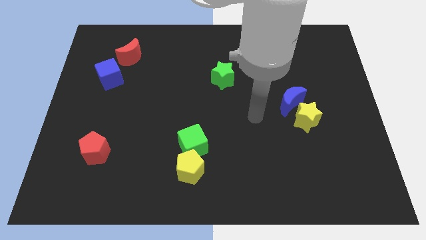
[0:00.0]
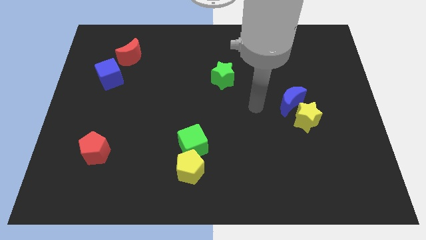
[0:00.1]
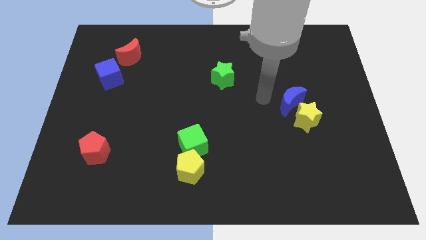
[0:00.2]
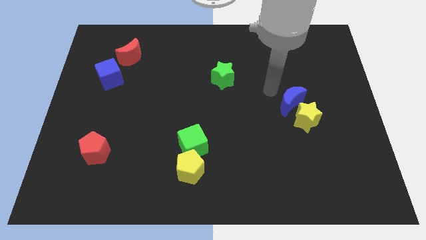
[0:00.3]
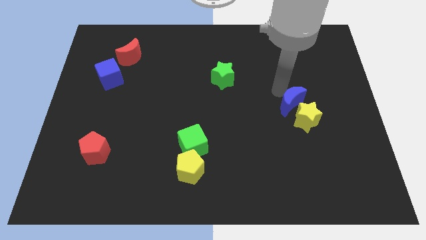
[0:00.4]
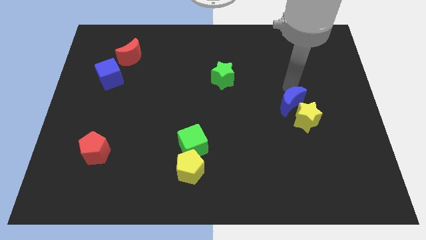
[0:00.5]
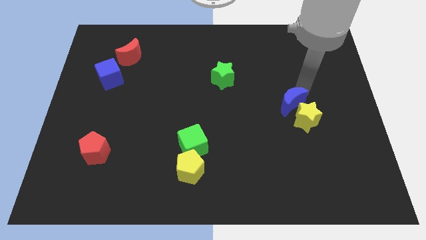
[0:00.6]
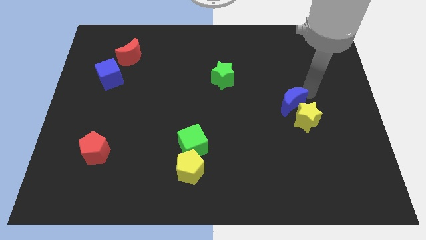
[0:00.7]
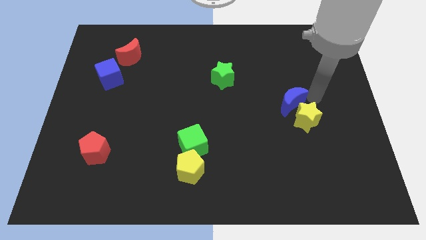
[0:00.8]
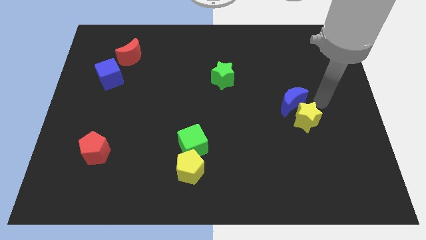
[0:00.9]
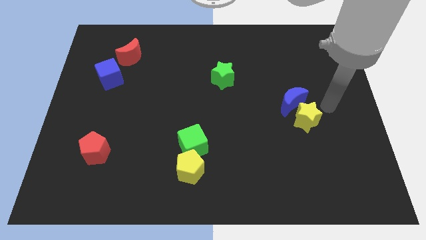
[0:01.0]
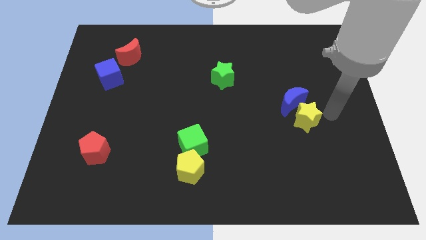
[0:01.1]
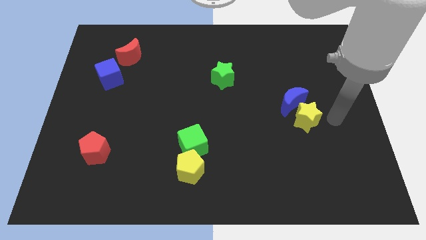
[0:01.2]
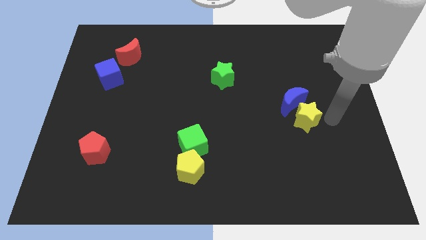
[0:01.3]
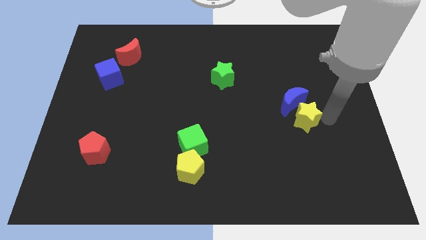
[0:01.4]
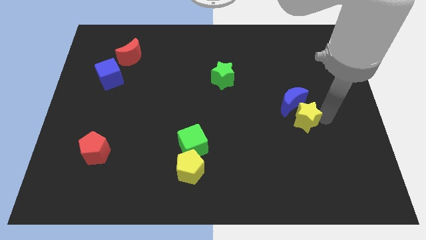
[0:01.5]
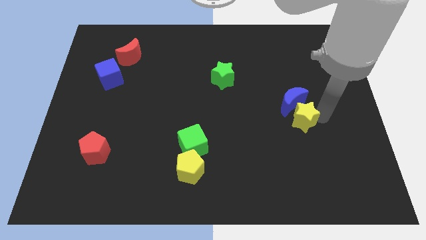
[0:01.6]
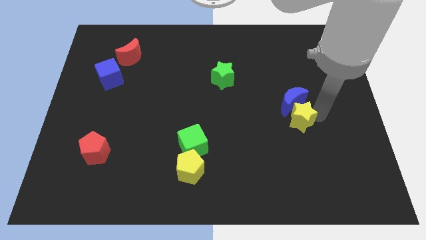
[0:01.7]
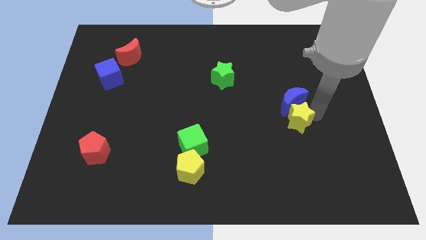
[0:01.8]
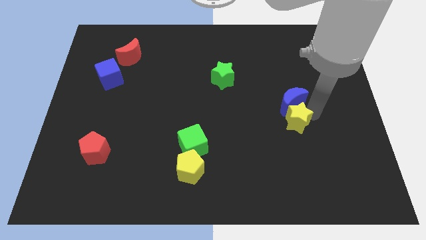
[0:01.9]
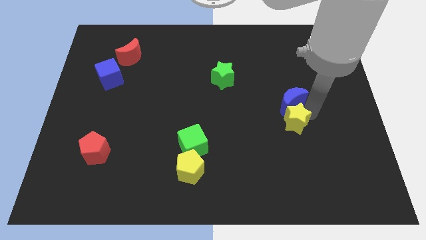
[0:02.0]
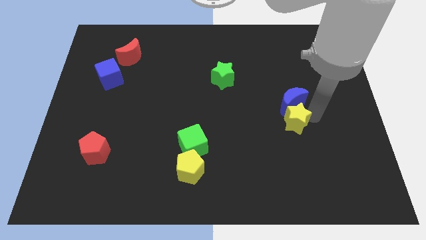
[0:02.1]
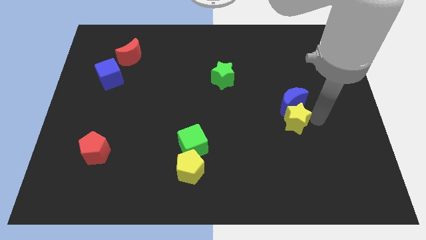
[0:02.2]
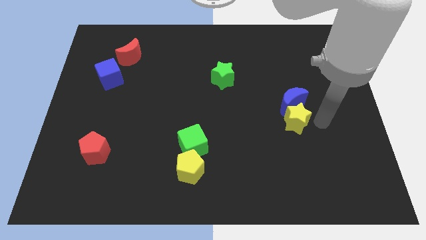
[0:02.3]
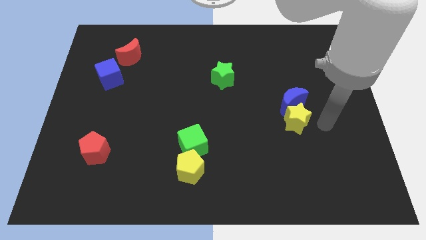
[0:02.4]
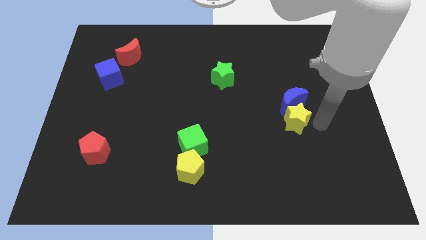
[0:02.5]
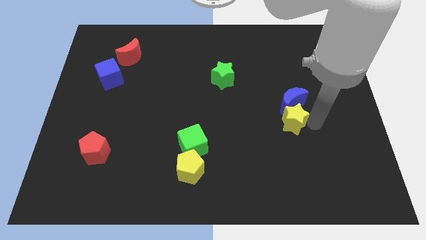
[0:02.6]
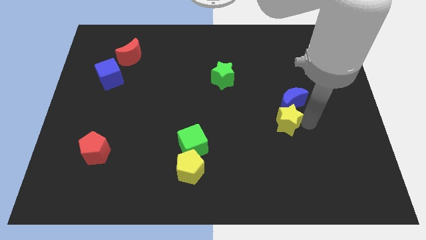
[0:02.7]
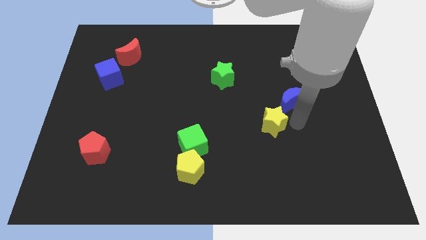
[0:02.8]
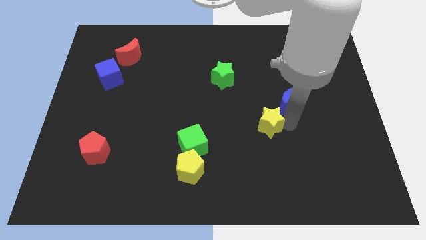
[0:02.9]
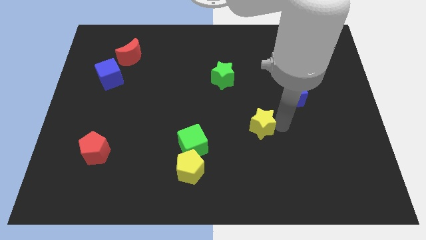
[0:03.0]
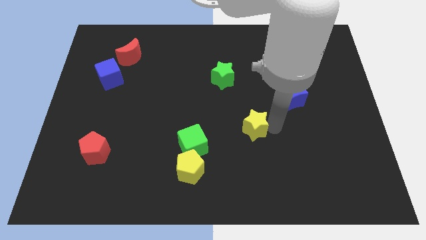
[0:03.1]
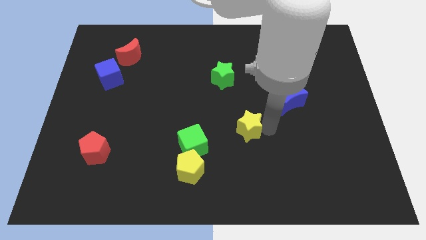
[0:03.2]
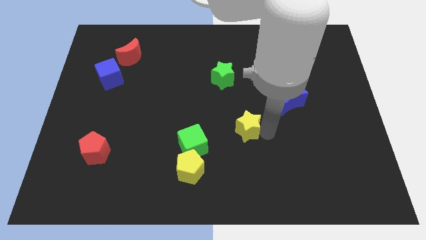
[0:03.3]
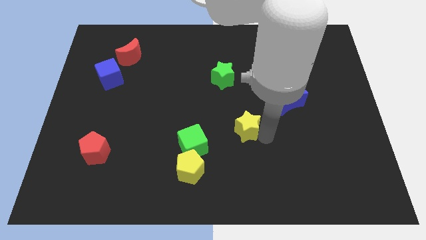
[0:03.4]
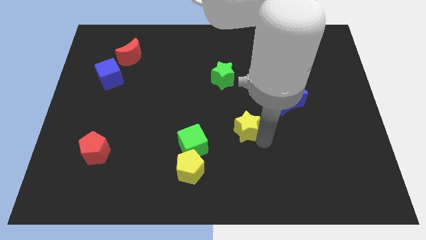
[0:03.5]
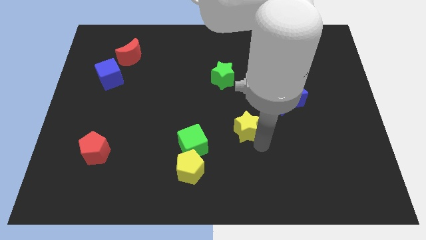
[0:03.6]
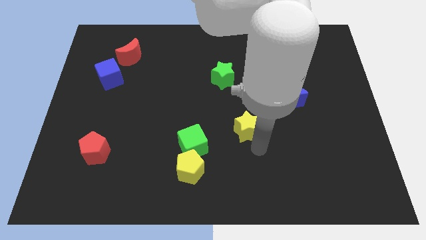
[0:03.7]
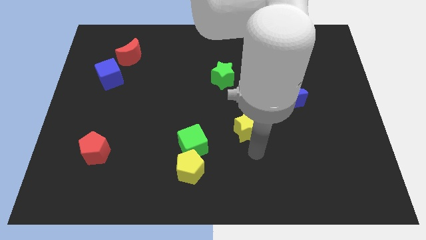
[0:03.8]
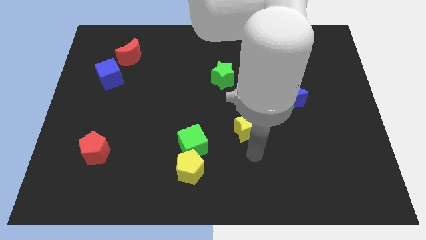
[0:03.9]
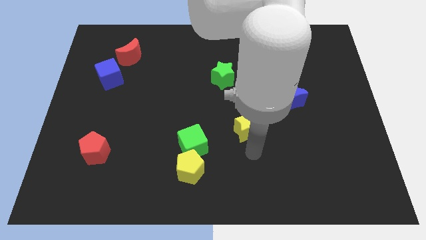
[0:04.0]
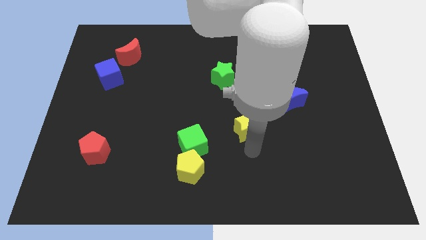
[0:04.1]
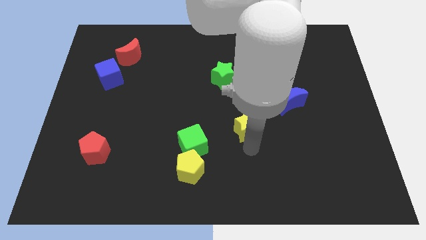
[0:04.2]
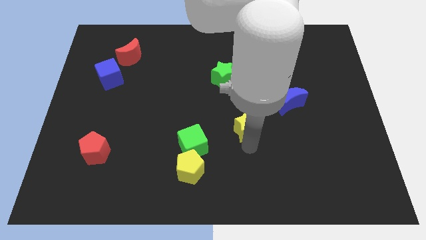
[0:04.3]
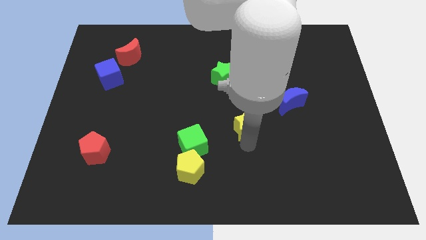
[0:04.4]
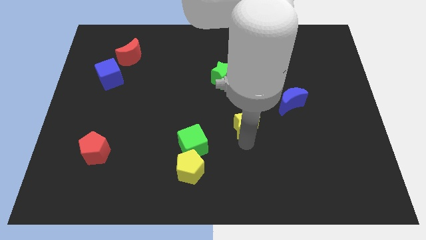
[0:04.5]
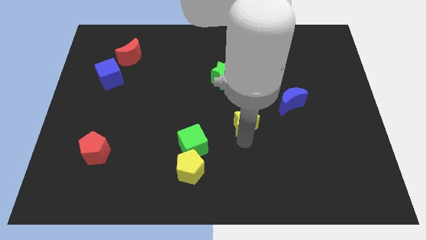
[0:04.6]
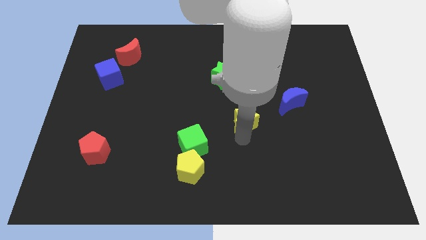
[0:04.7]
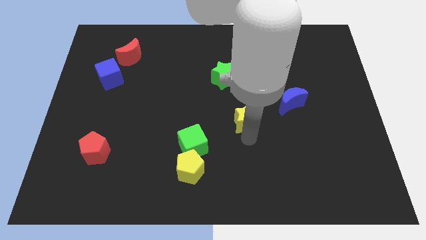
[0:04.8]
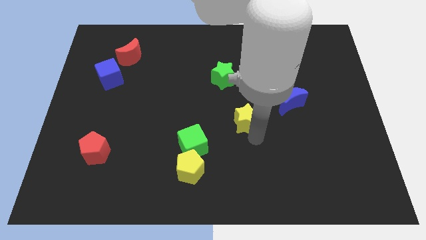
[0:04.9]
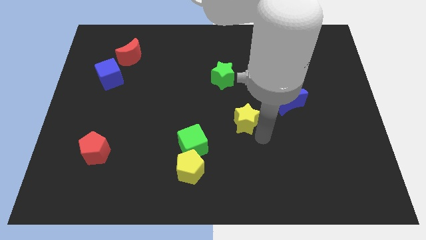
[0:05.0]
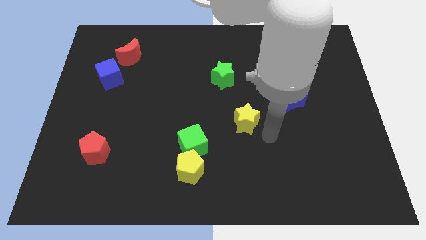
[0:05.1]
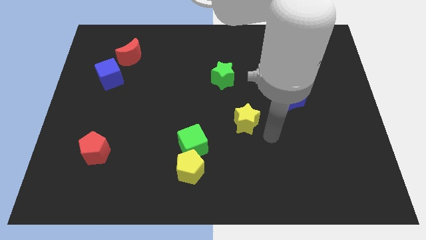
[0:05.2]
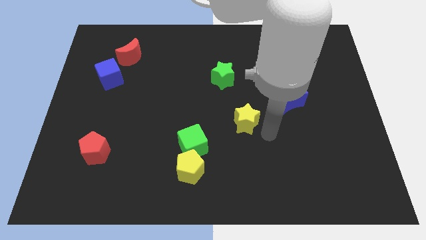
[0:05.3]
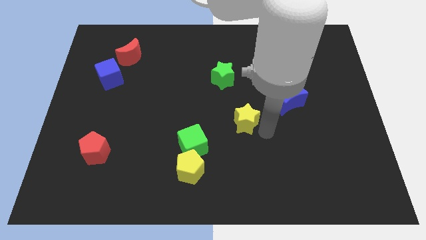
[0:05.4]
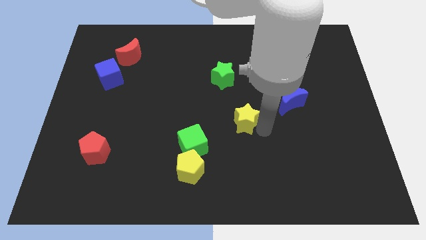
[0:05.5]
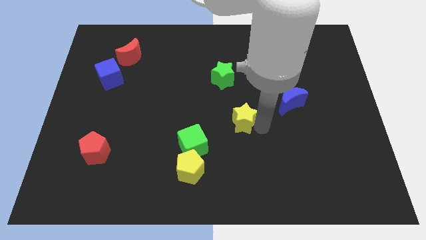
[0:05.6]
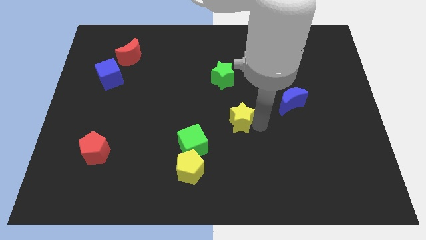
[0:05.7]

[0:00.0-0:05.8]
put the yellow star to the bottom side of the green star
